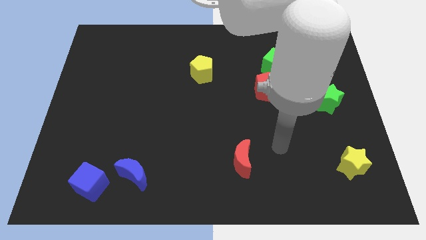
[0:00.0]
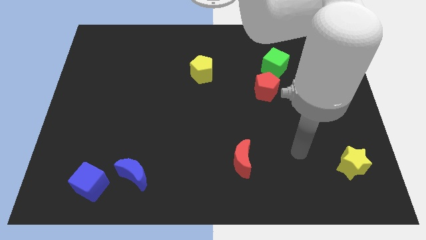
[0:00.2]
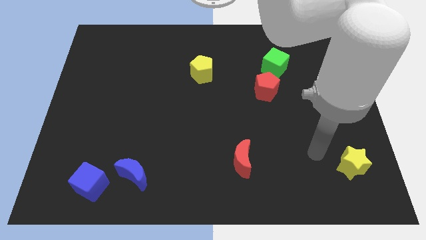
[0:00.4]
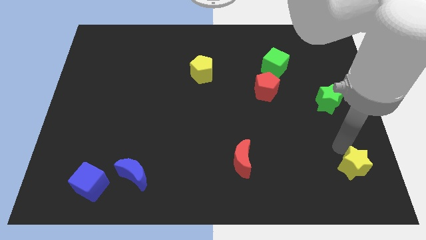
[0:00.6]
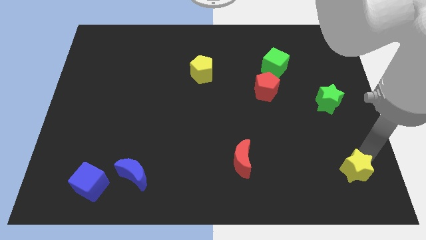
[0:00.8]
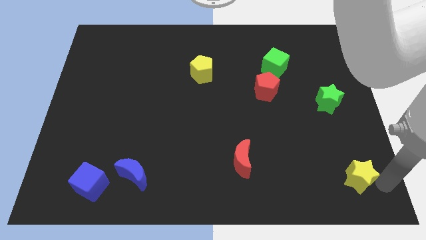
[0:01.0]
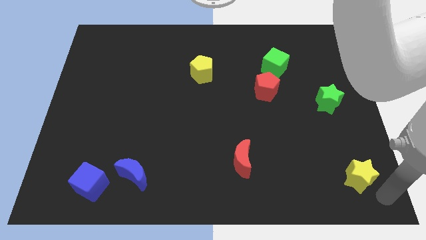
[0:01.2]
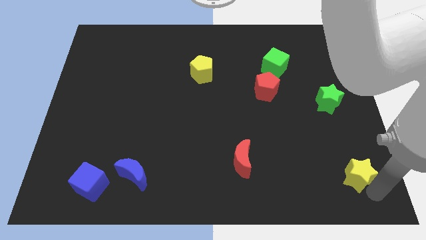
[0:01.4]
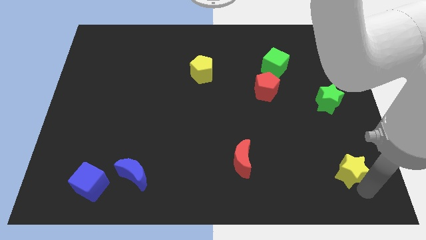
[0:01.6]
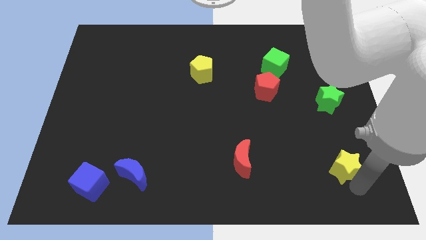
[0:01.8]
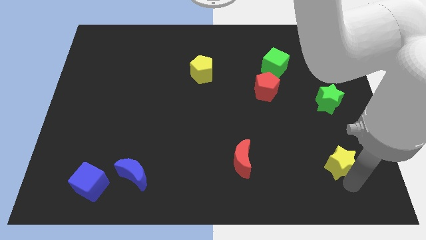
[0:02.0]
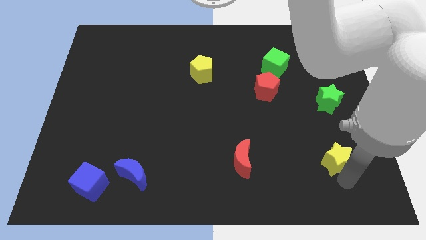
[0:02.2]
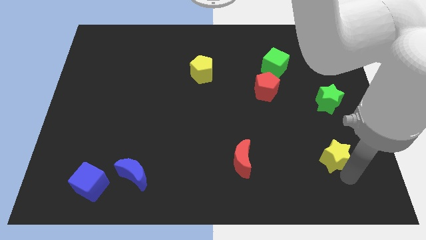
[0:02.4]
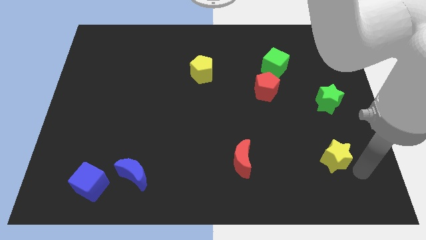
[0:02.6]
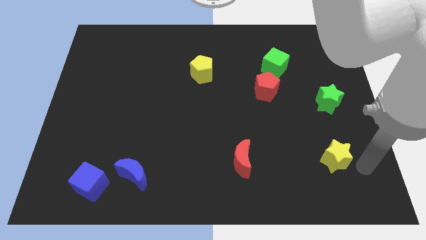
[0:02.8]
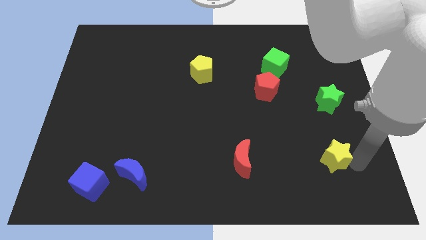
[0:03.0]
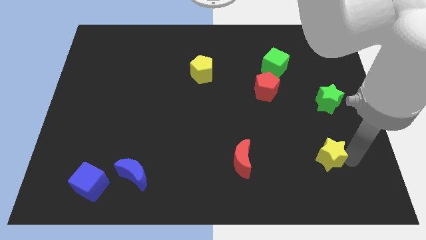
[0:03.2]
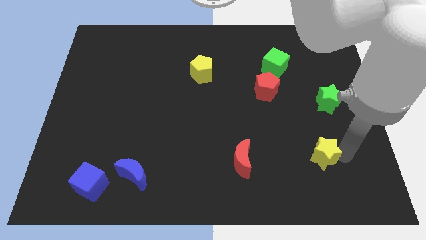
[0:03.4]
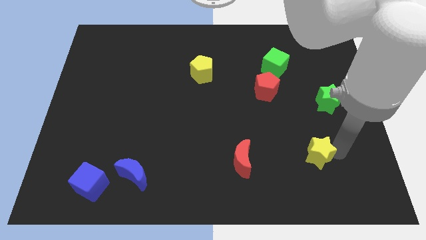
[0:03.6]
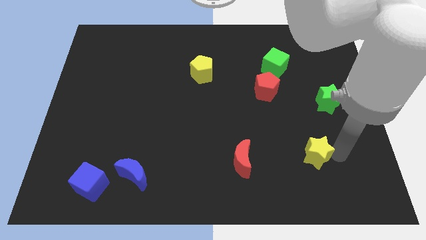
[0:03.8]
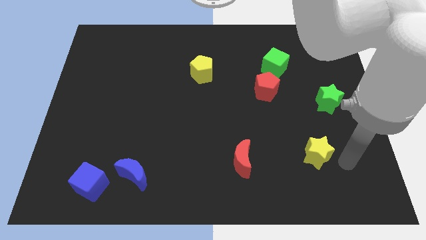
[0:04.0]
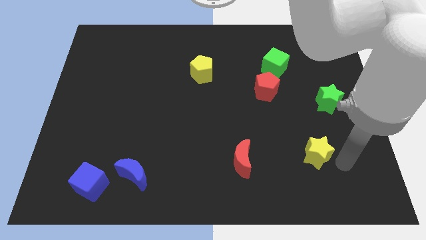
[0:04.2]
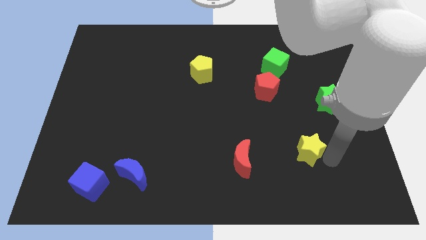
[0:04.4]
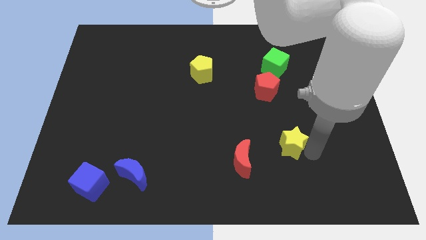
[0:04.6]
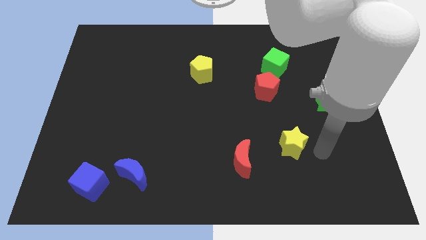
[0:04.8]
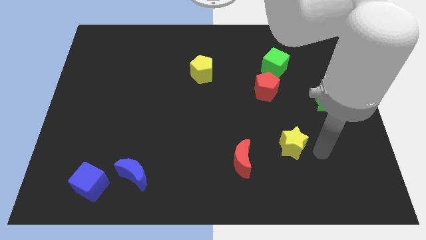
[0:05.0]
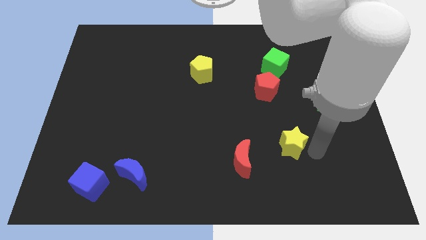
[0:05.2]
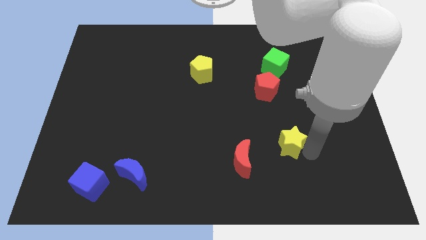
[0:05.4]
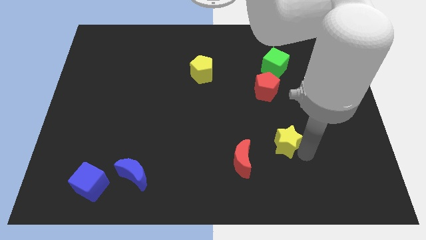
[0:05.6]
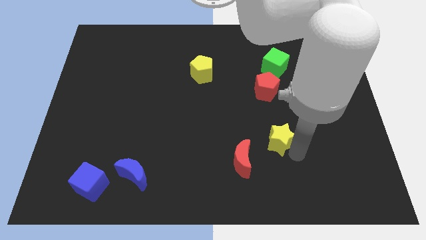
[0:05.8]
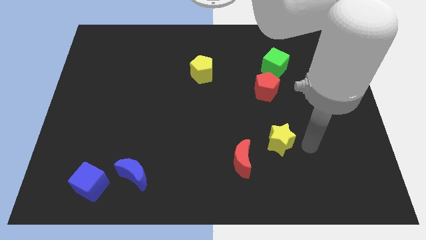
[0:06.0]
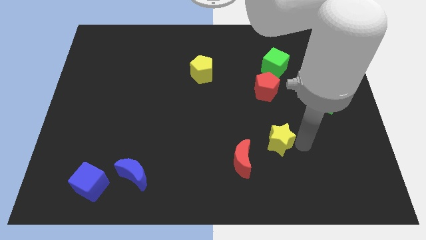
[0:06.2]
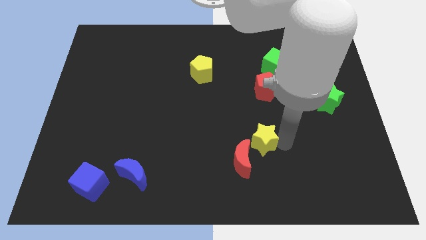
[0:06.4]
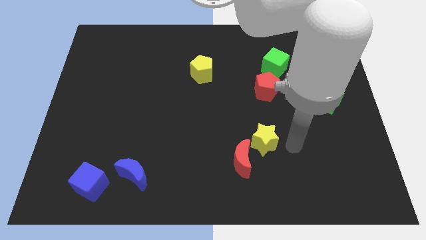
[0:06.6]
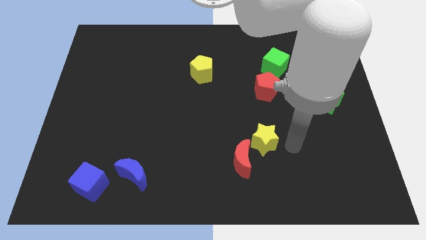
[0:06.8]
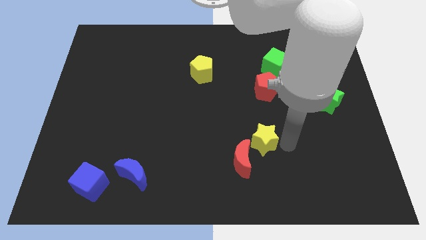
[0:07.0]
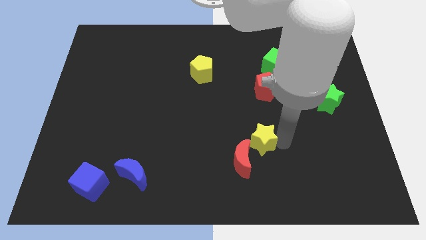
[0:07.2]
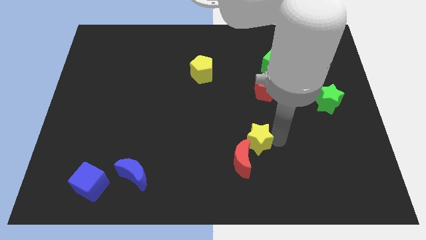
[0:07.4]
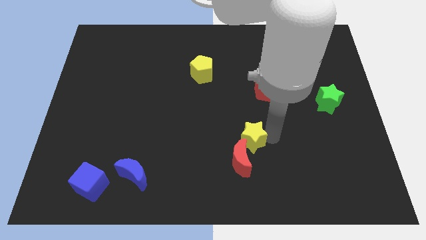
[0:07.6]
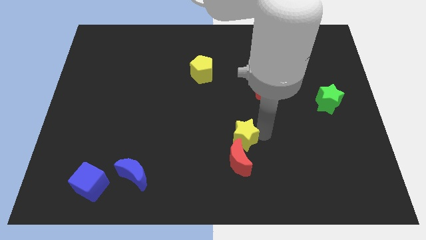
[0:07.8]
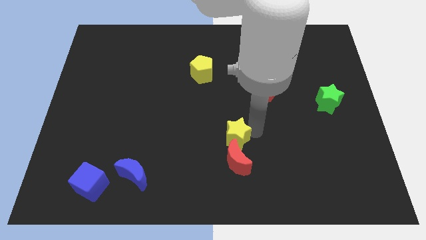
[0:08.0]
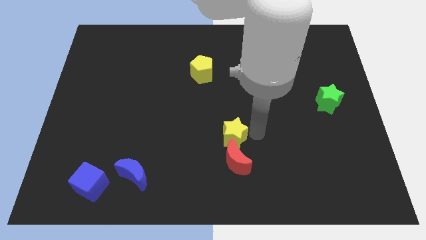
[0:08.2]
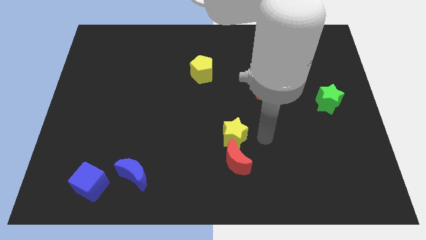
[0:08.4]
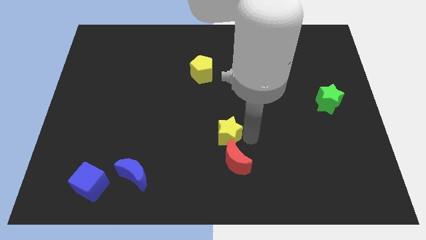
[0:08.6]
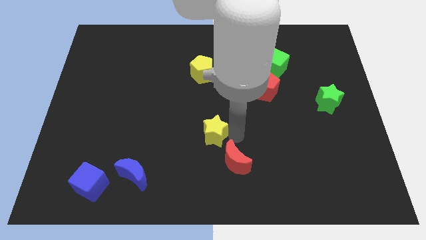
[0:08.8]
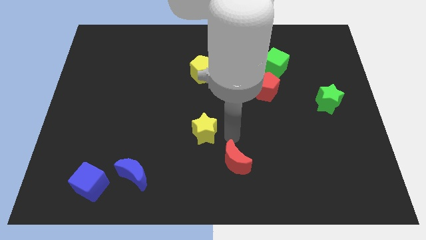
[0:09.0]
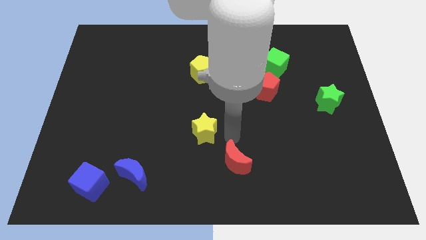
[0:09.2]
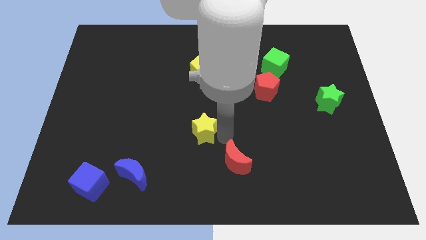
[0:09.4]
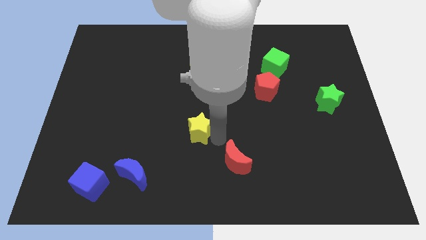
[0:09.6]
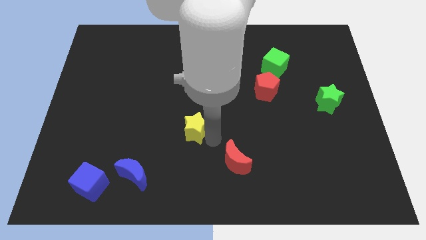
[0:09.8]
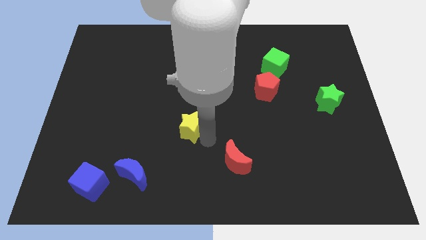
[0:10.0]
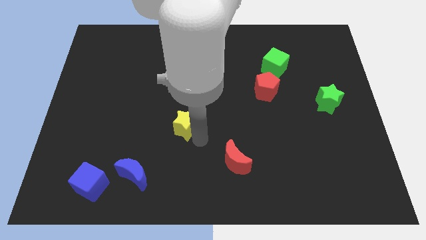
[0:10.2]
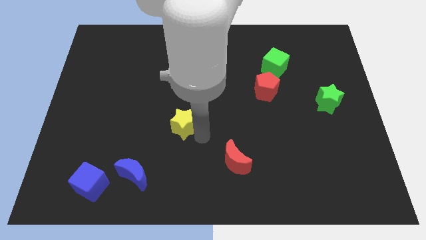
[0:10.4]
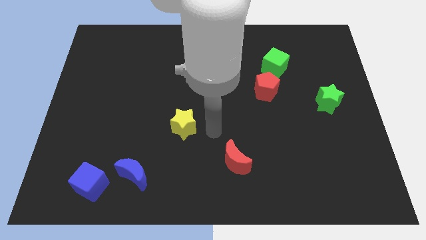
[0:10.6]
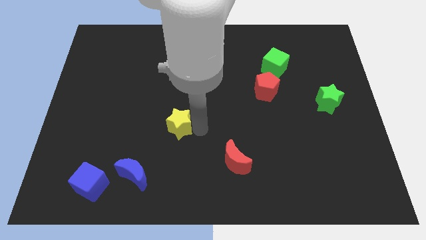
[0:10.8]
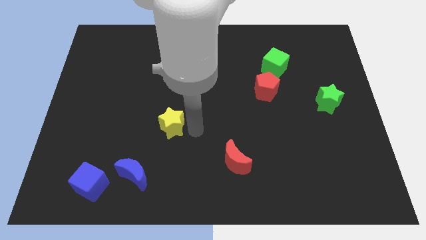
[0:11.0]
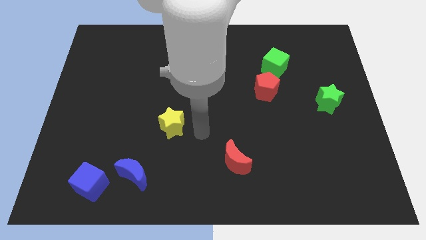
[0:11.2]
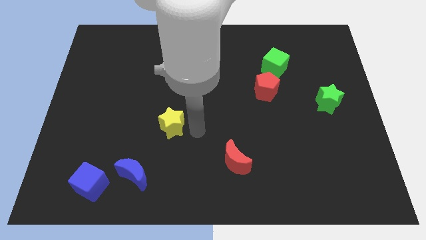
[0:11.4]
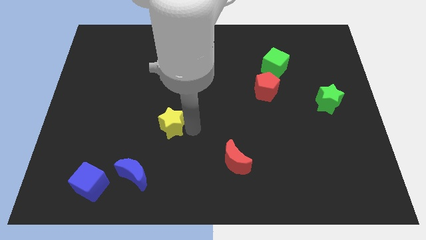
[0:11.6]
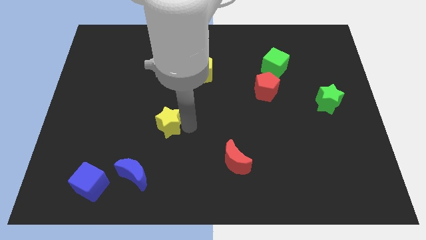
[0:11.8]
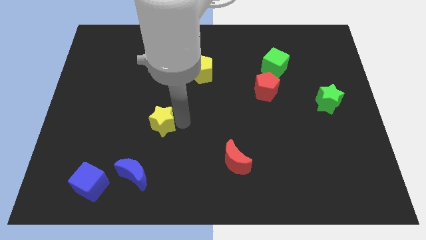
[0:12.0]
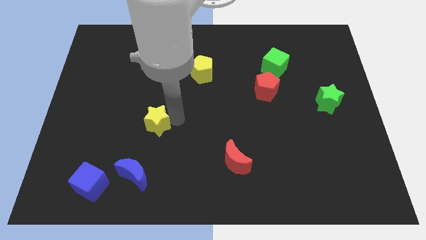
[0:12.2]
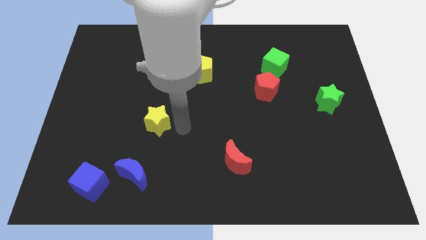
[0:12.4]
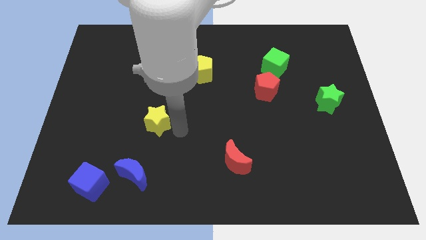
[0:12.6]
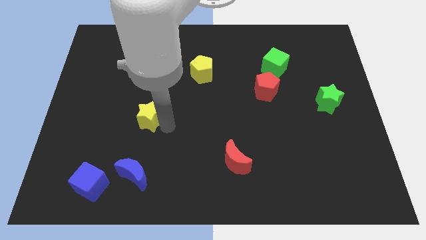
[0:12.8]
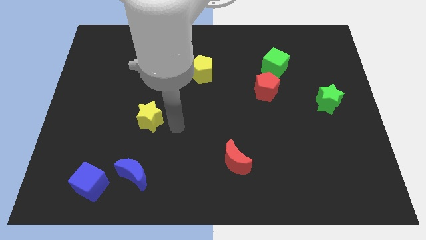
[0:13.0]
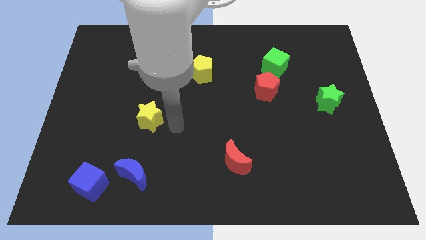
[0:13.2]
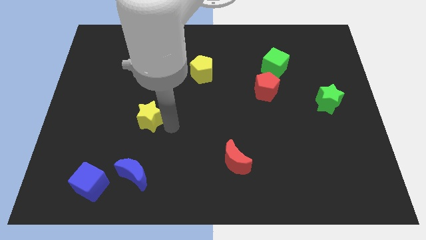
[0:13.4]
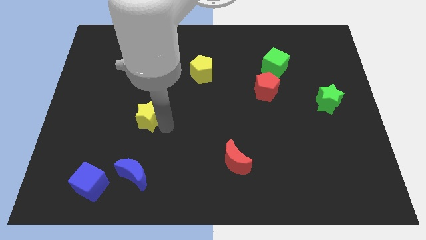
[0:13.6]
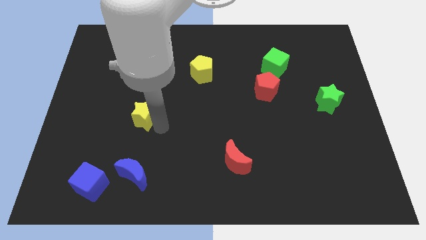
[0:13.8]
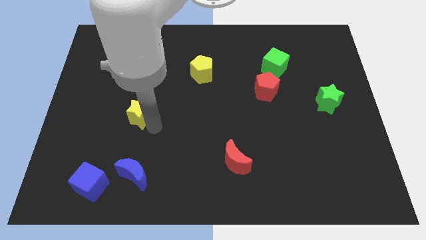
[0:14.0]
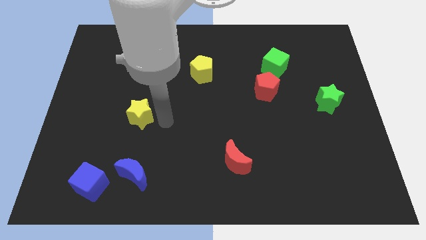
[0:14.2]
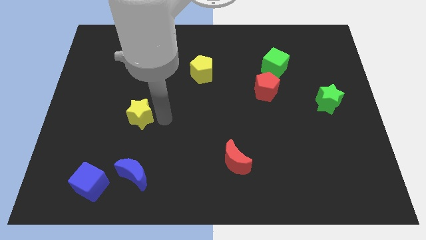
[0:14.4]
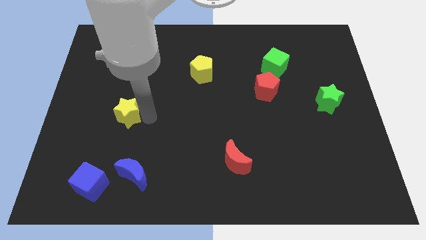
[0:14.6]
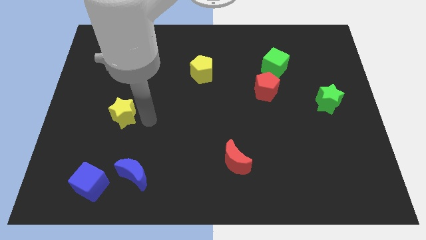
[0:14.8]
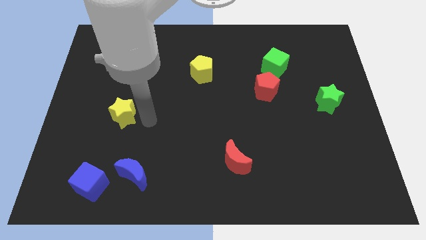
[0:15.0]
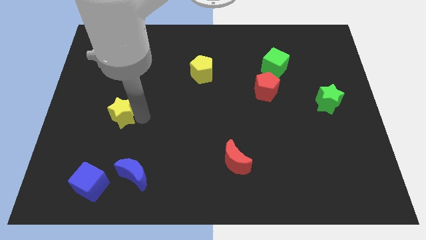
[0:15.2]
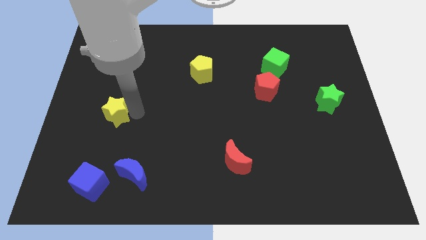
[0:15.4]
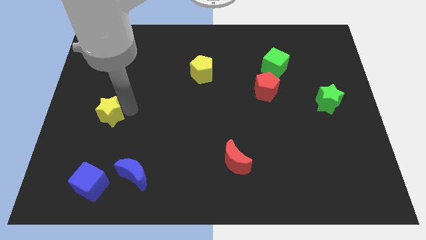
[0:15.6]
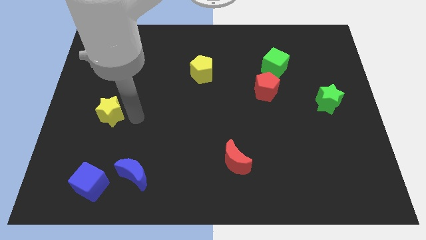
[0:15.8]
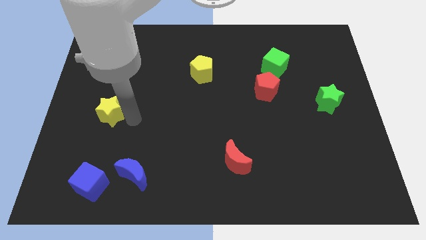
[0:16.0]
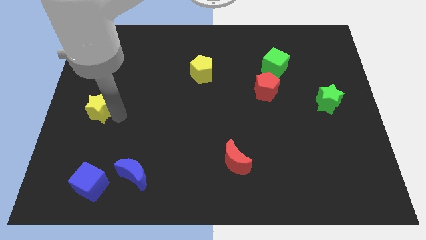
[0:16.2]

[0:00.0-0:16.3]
move the yellow star to the center left
